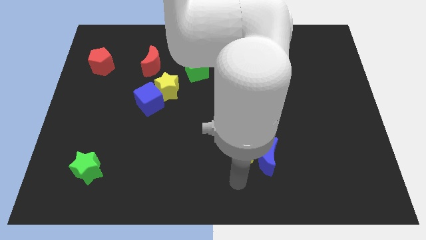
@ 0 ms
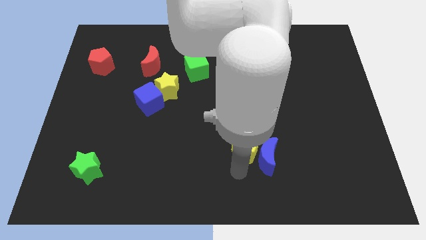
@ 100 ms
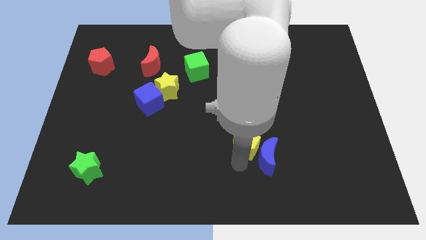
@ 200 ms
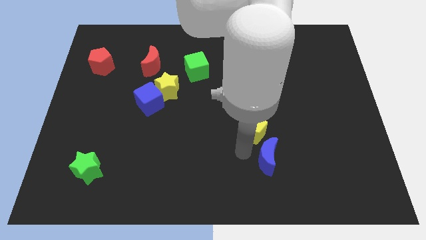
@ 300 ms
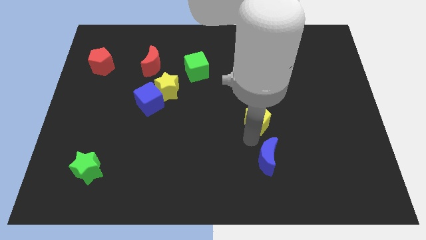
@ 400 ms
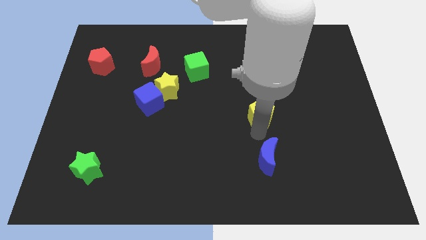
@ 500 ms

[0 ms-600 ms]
pull the blue moon apart from the yellow pentagon

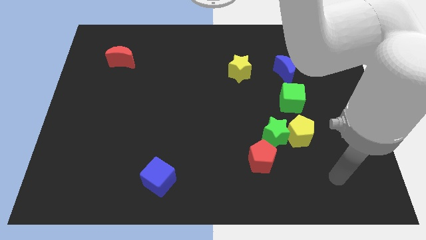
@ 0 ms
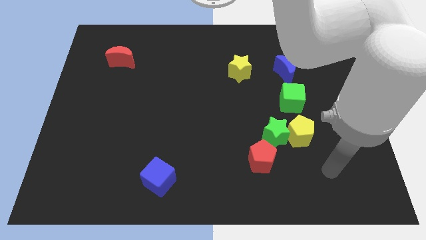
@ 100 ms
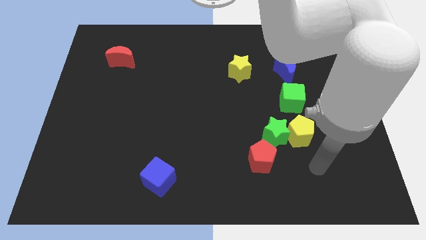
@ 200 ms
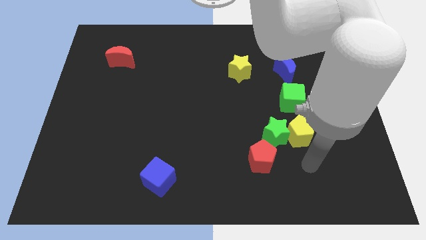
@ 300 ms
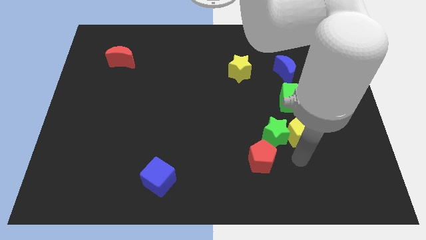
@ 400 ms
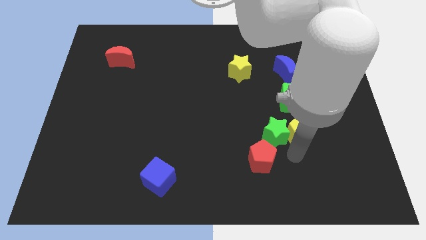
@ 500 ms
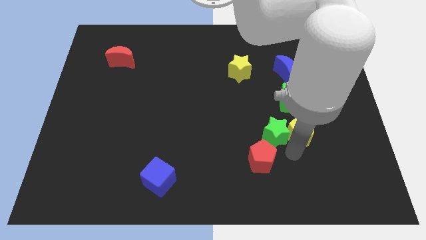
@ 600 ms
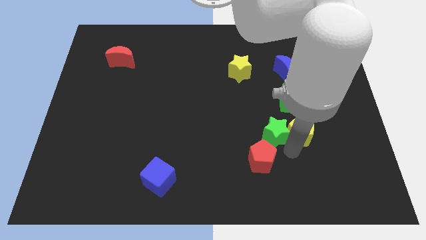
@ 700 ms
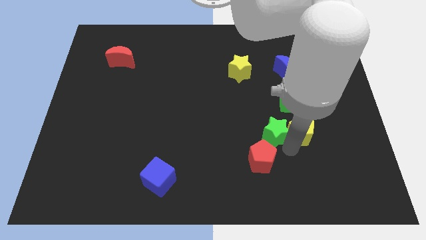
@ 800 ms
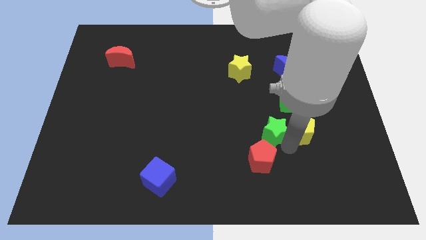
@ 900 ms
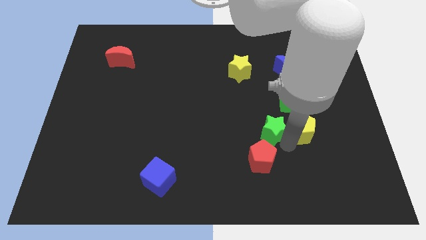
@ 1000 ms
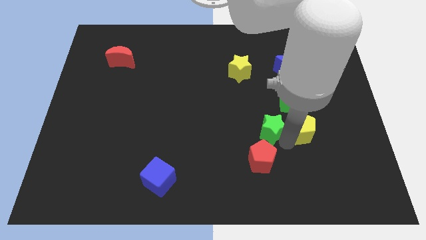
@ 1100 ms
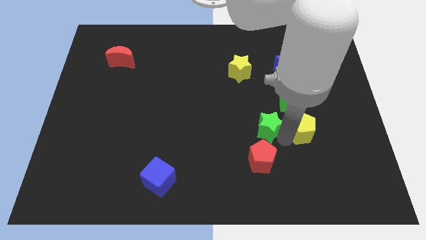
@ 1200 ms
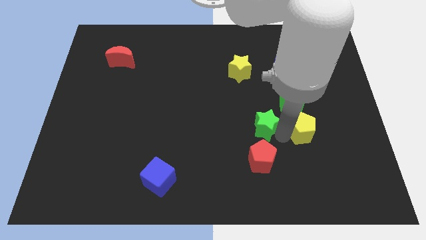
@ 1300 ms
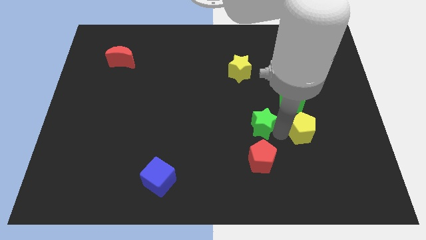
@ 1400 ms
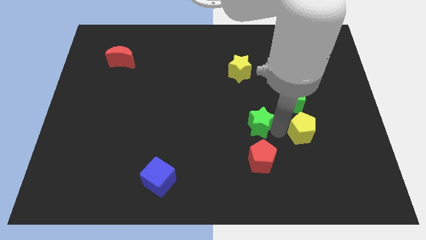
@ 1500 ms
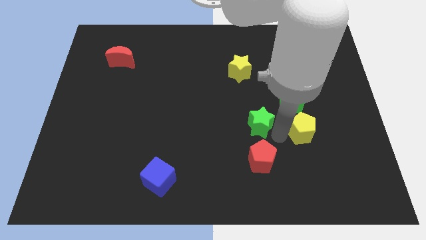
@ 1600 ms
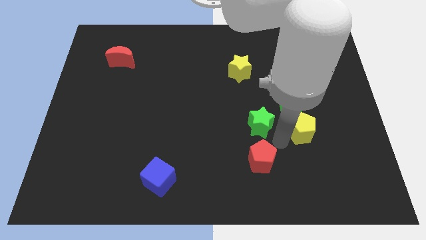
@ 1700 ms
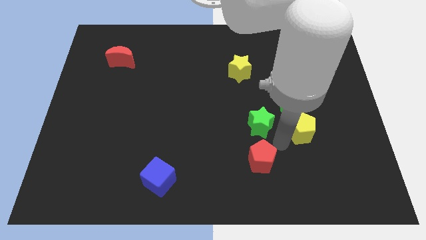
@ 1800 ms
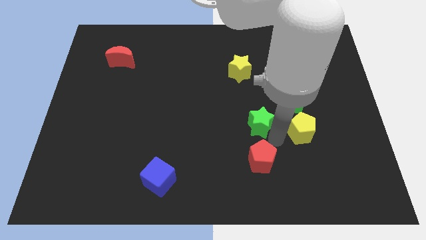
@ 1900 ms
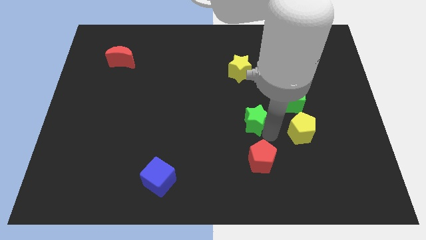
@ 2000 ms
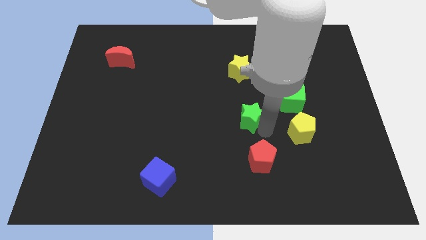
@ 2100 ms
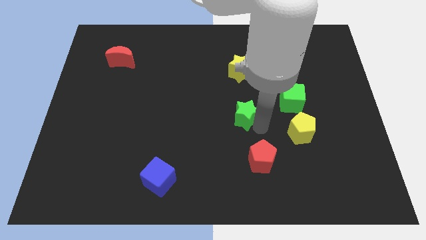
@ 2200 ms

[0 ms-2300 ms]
separate the green star from the yellow pentagon and red pentagon

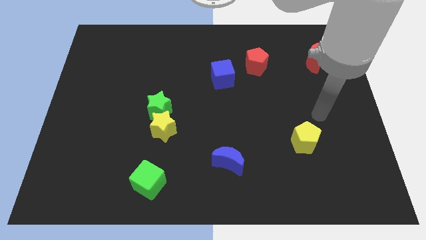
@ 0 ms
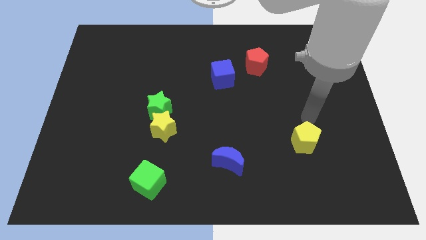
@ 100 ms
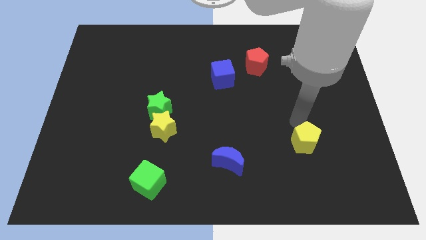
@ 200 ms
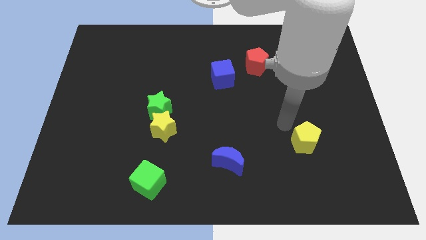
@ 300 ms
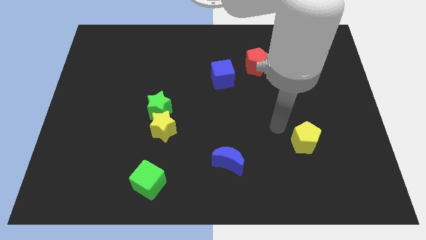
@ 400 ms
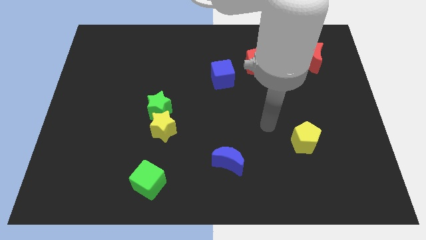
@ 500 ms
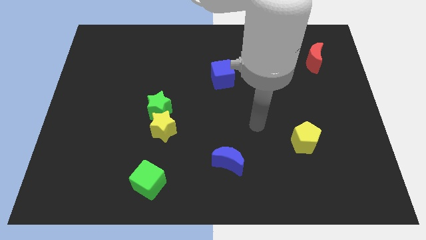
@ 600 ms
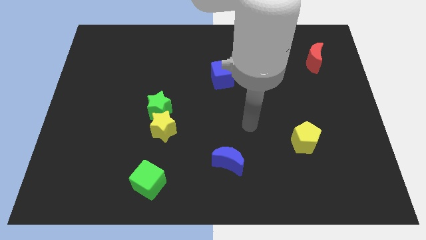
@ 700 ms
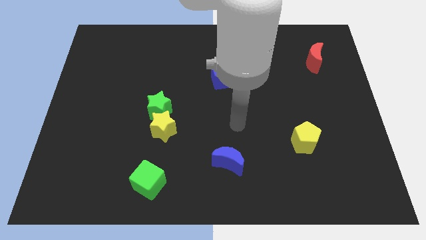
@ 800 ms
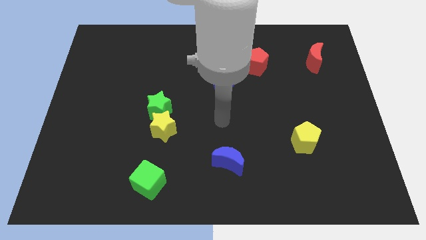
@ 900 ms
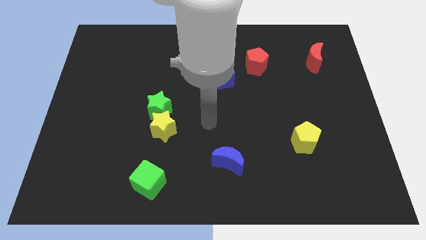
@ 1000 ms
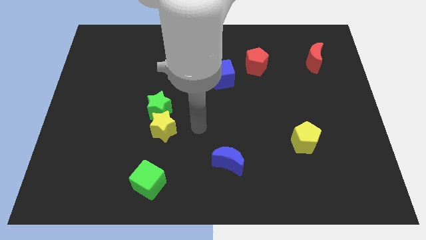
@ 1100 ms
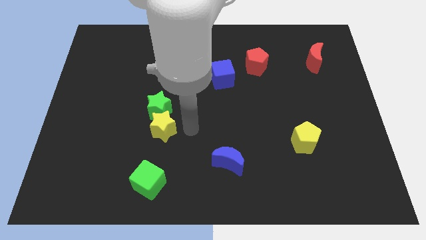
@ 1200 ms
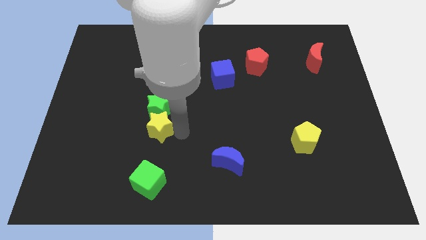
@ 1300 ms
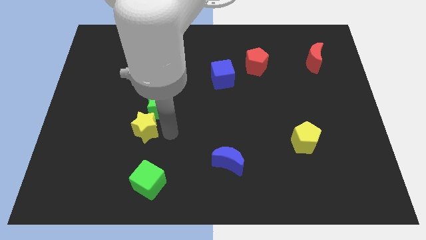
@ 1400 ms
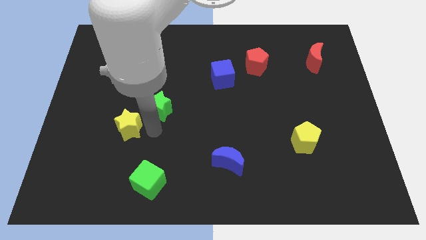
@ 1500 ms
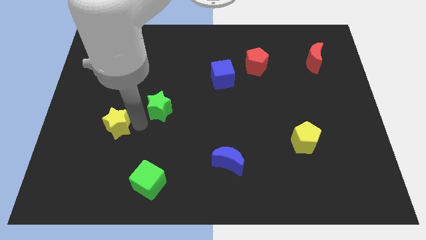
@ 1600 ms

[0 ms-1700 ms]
pull the green star apart from the yellow star

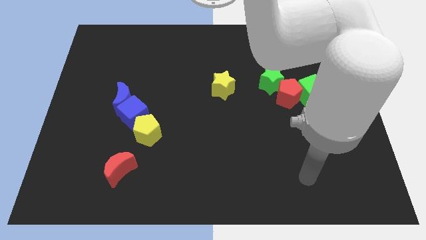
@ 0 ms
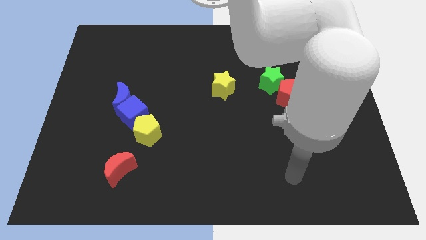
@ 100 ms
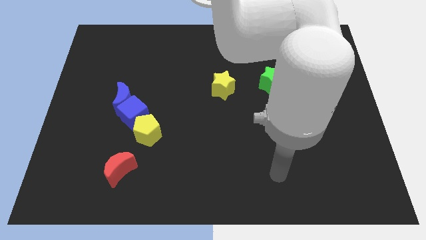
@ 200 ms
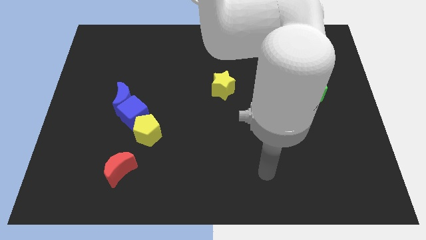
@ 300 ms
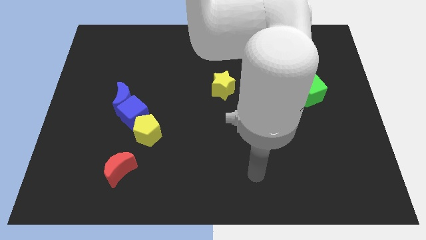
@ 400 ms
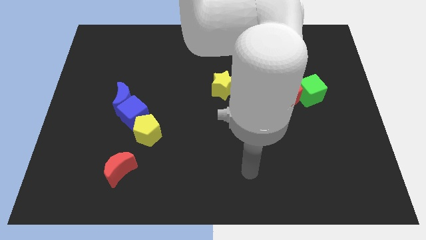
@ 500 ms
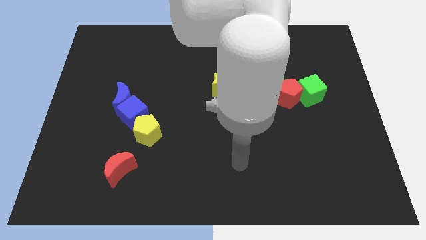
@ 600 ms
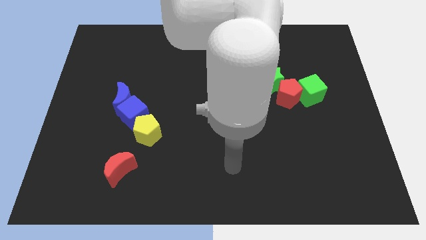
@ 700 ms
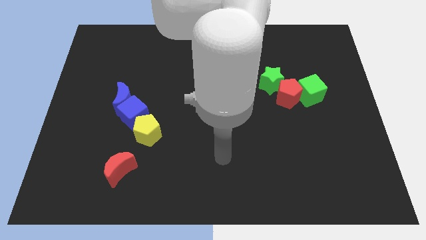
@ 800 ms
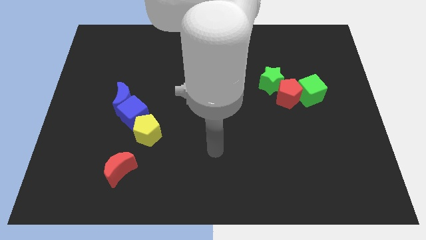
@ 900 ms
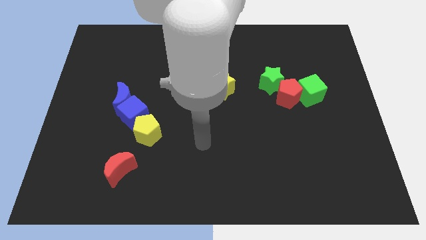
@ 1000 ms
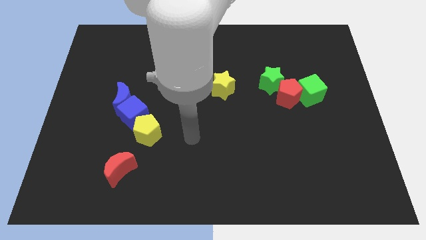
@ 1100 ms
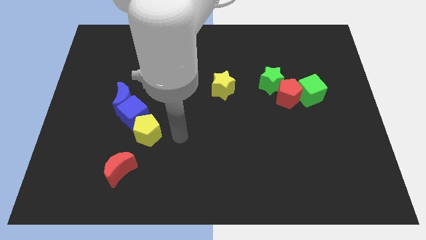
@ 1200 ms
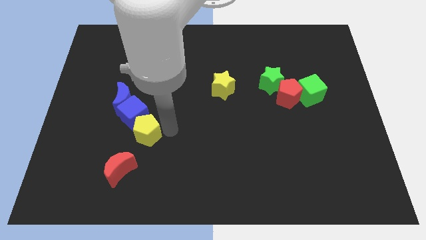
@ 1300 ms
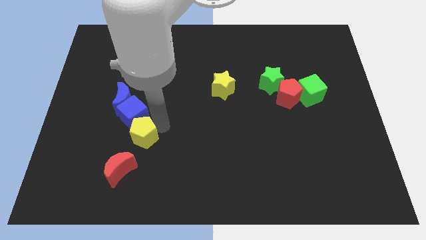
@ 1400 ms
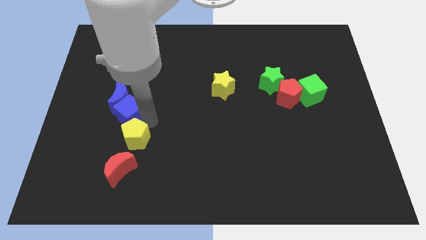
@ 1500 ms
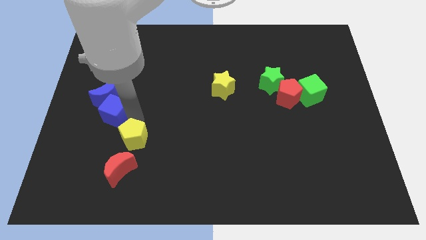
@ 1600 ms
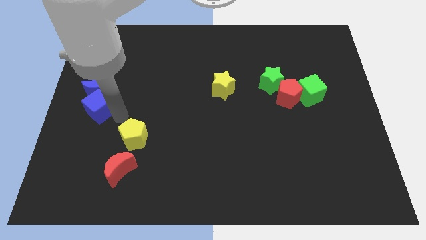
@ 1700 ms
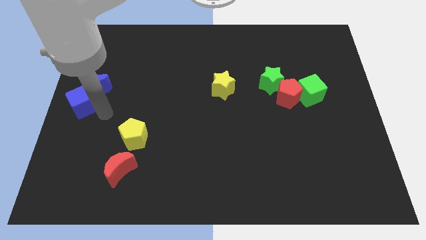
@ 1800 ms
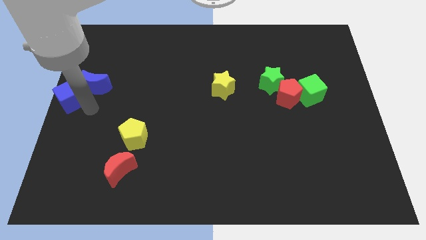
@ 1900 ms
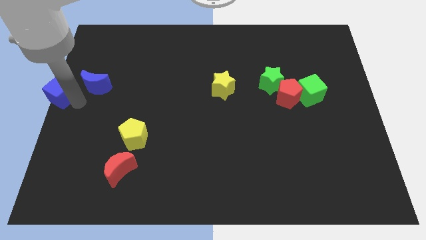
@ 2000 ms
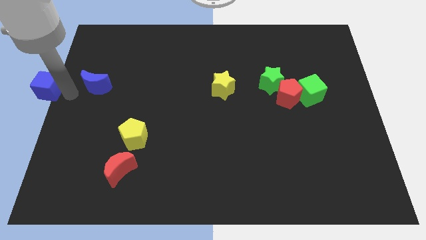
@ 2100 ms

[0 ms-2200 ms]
move the blue moon away from the blue cube

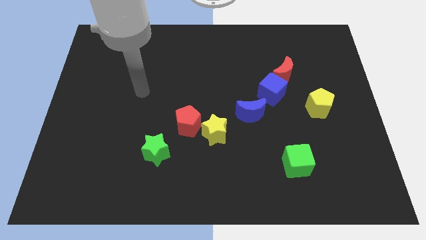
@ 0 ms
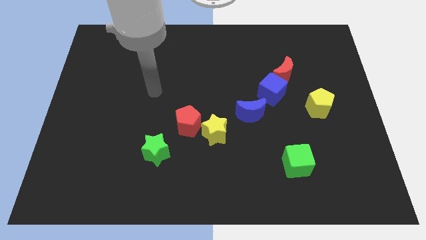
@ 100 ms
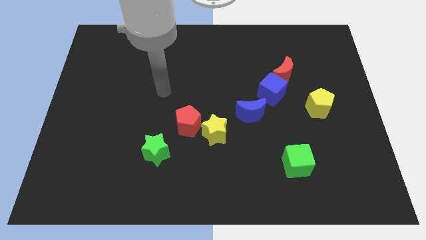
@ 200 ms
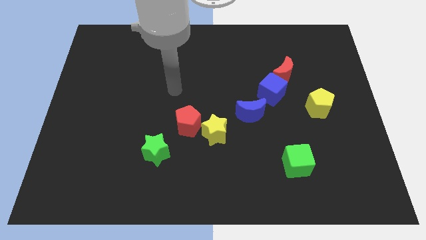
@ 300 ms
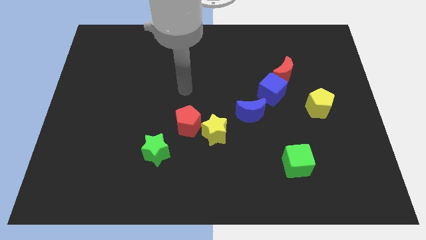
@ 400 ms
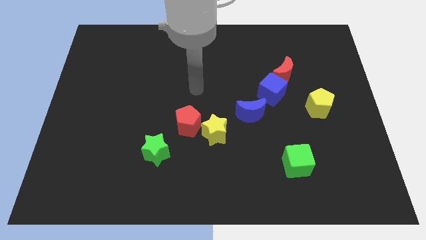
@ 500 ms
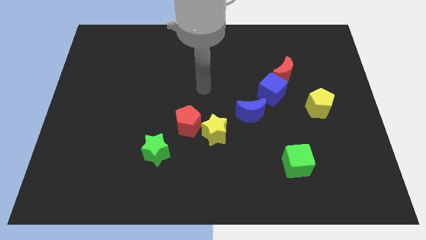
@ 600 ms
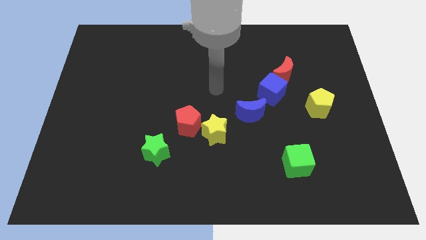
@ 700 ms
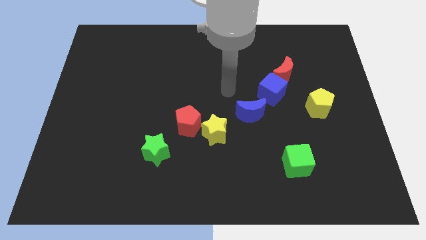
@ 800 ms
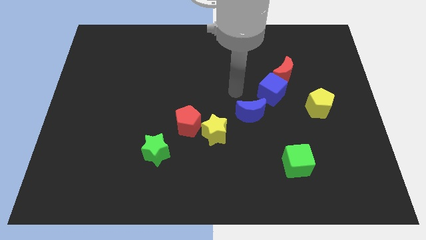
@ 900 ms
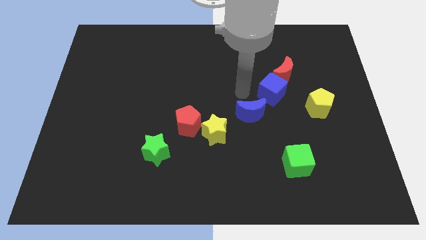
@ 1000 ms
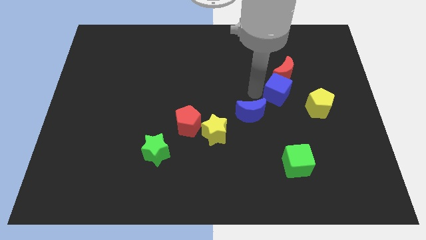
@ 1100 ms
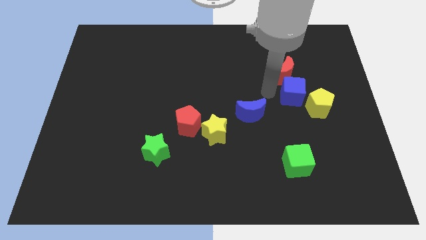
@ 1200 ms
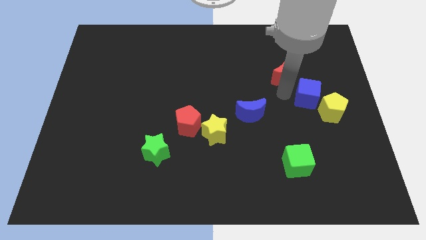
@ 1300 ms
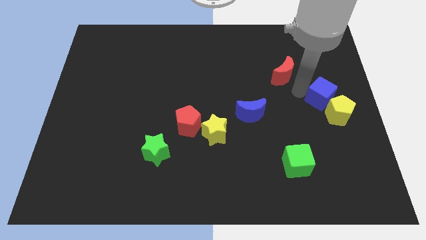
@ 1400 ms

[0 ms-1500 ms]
separate the red moon from the blue cube

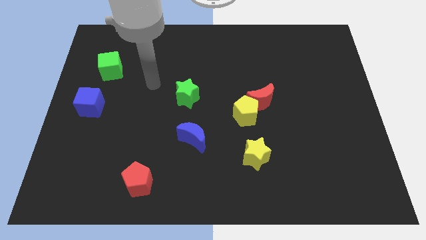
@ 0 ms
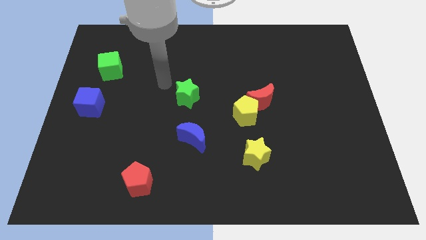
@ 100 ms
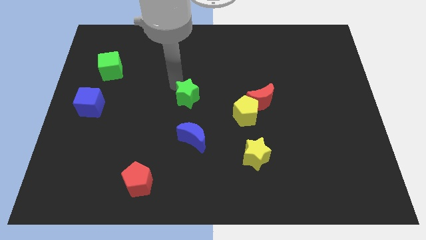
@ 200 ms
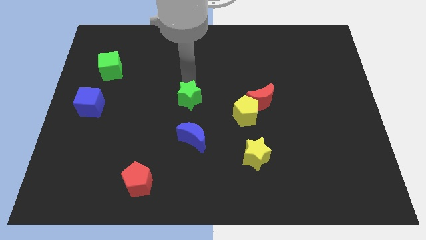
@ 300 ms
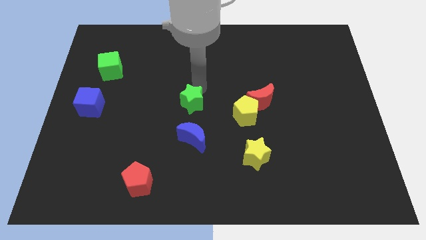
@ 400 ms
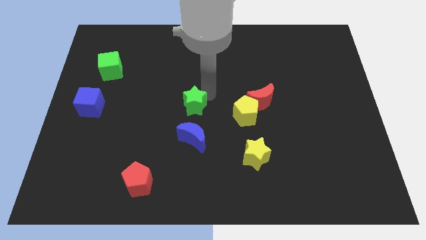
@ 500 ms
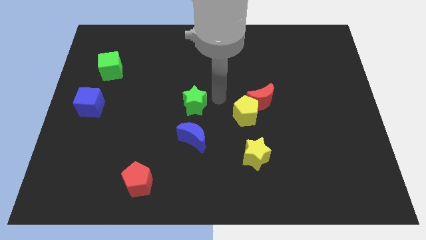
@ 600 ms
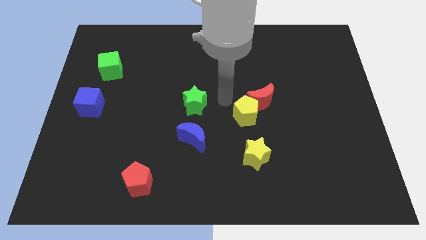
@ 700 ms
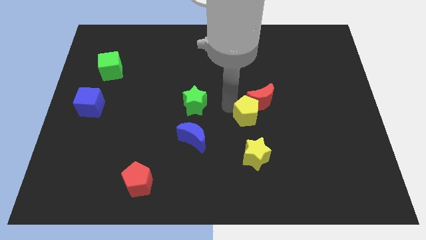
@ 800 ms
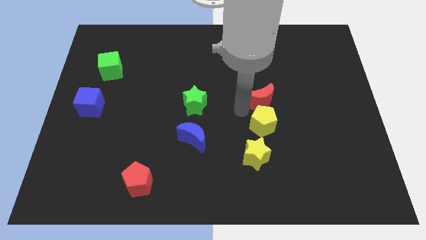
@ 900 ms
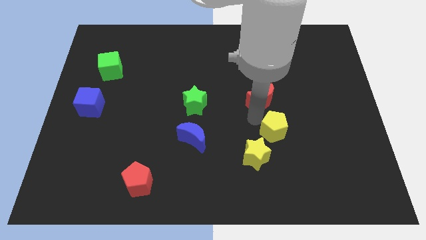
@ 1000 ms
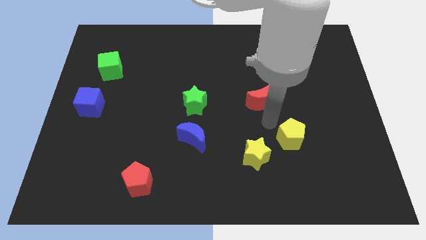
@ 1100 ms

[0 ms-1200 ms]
pull the red moon apart from the yellow pentagon

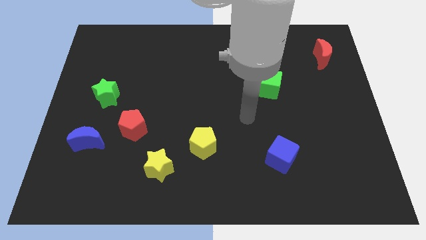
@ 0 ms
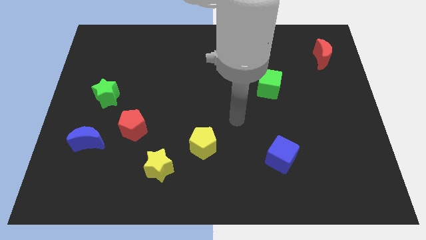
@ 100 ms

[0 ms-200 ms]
pull the red pentagon apart from the blue moon
